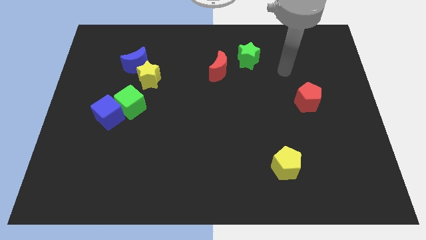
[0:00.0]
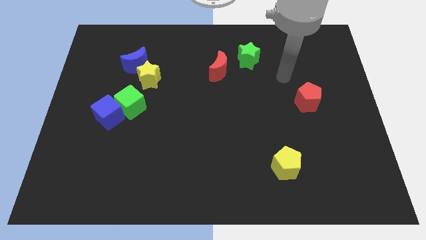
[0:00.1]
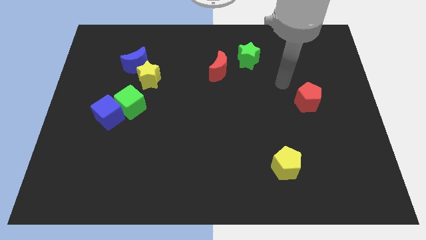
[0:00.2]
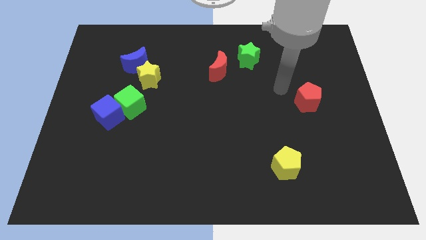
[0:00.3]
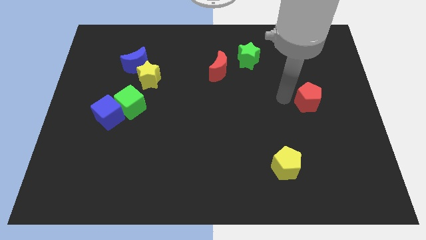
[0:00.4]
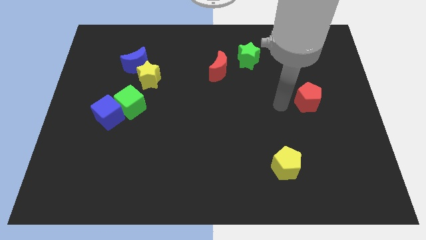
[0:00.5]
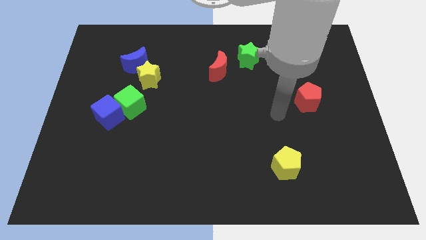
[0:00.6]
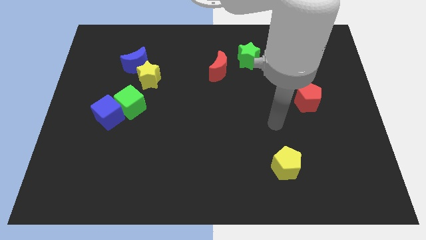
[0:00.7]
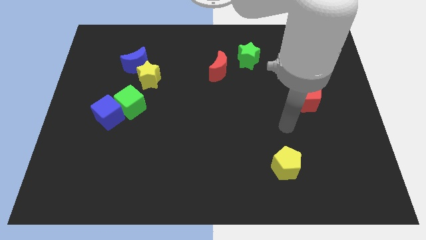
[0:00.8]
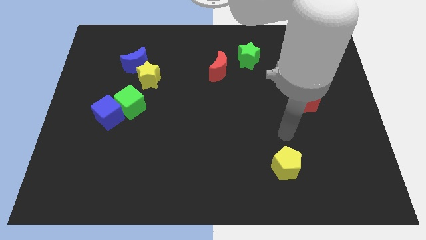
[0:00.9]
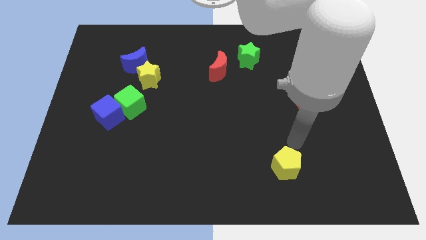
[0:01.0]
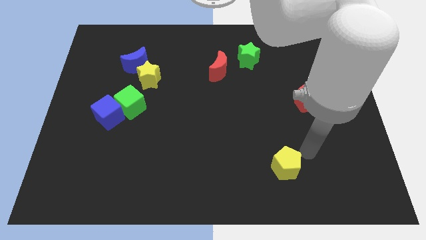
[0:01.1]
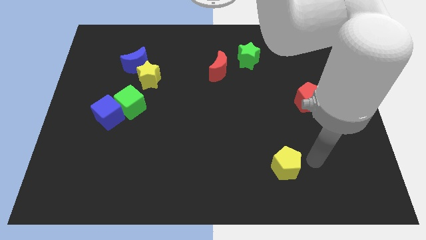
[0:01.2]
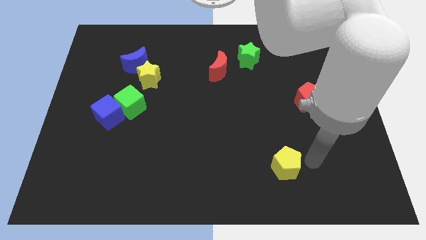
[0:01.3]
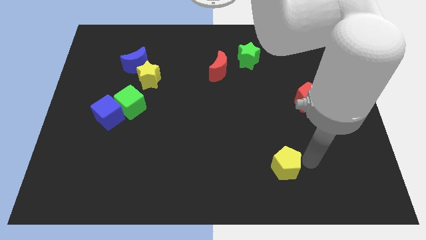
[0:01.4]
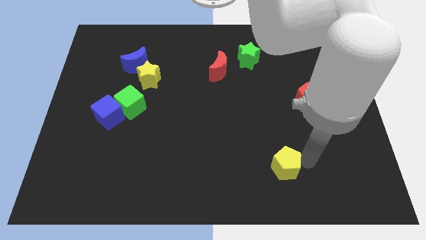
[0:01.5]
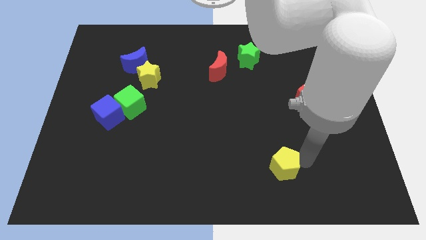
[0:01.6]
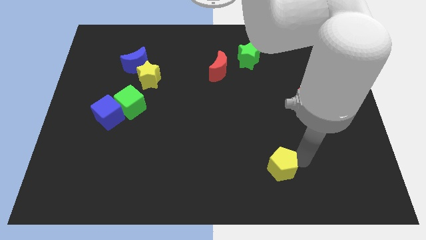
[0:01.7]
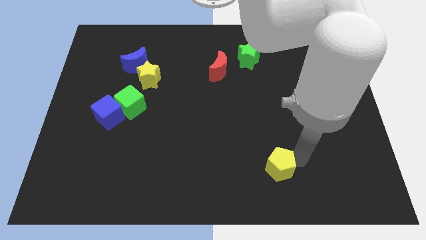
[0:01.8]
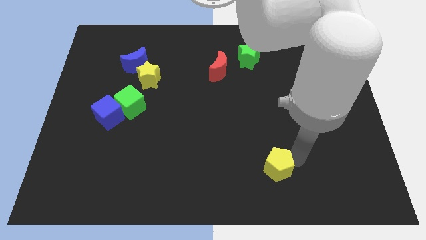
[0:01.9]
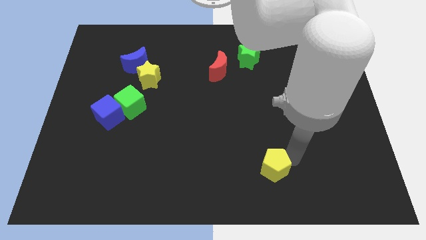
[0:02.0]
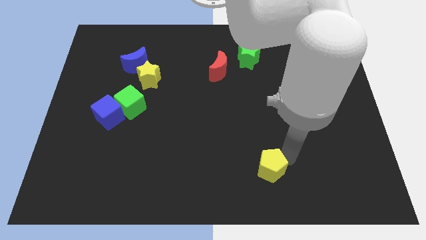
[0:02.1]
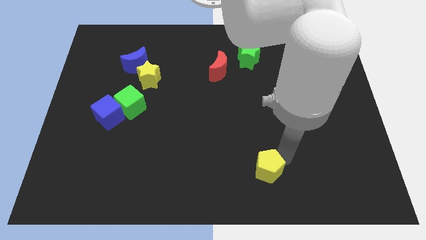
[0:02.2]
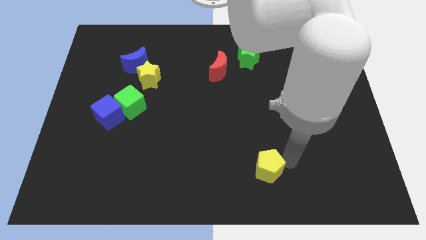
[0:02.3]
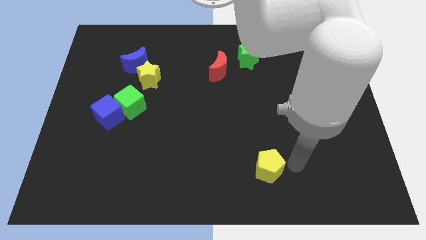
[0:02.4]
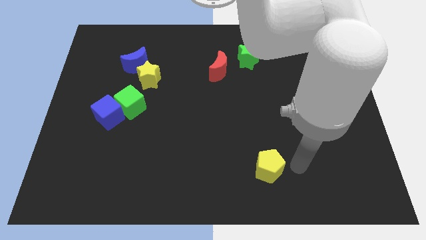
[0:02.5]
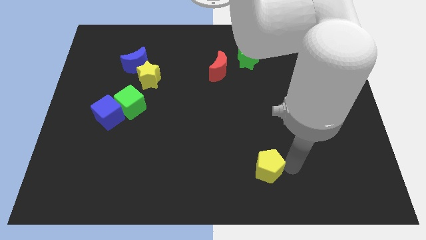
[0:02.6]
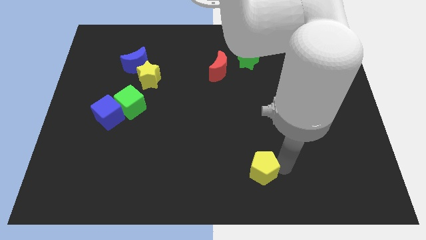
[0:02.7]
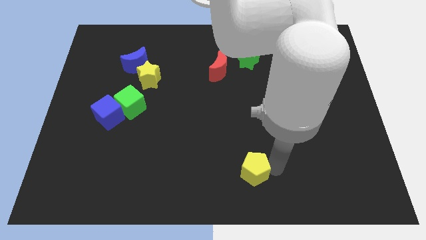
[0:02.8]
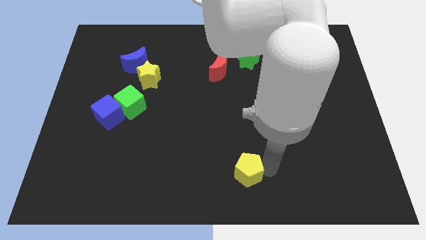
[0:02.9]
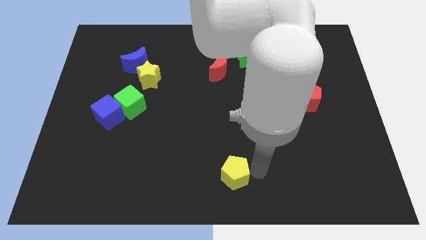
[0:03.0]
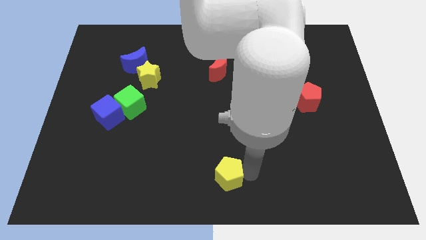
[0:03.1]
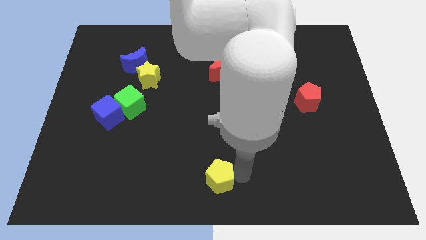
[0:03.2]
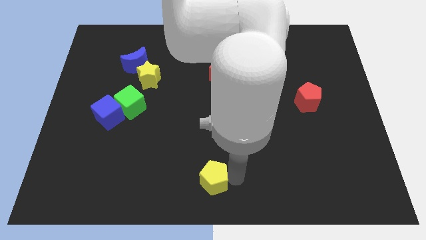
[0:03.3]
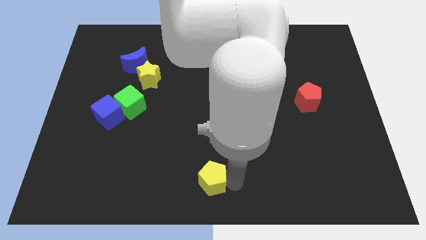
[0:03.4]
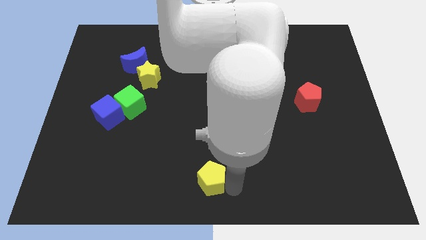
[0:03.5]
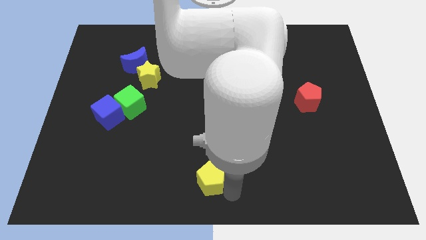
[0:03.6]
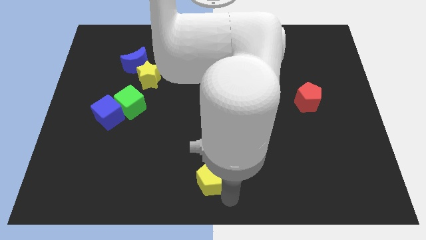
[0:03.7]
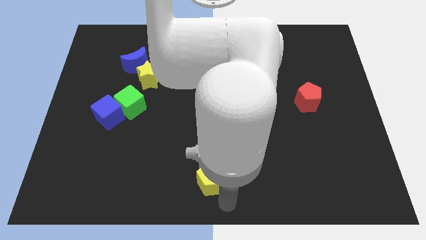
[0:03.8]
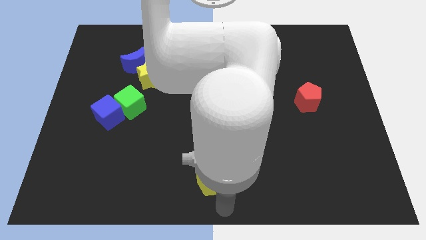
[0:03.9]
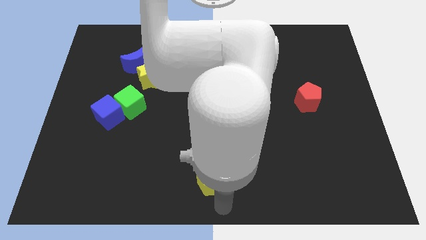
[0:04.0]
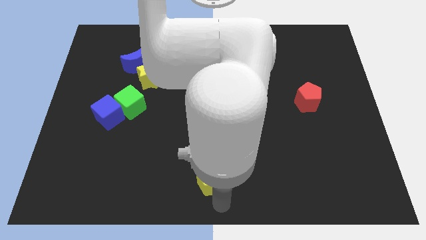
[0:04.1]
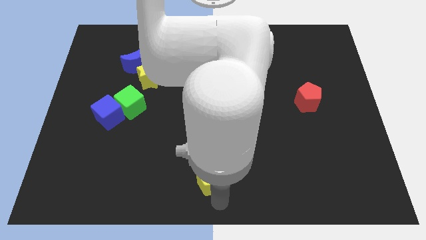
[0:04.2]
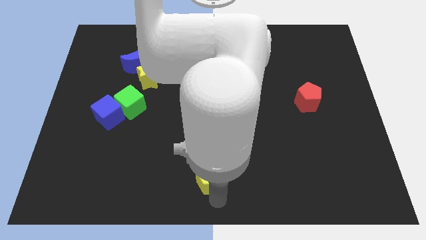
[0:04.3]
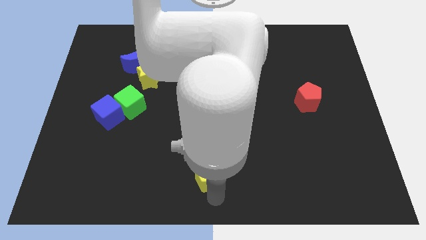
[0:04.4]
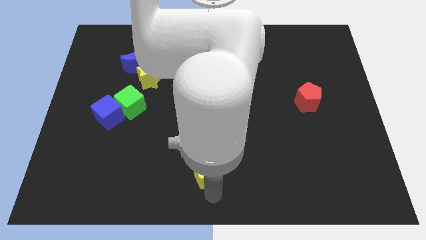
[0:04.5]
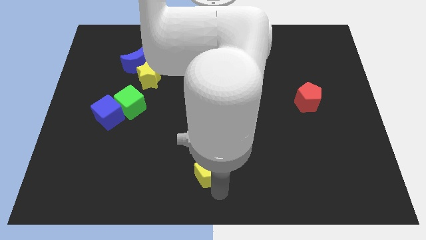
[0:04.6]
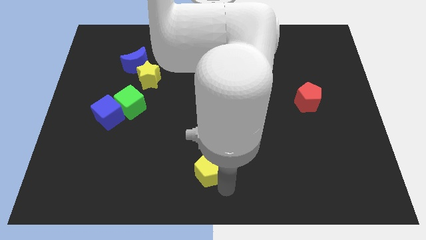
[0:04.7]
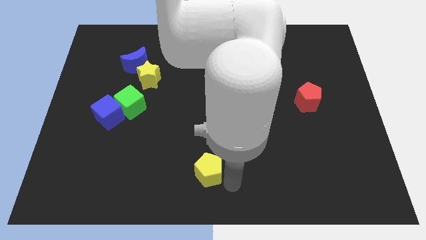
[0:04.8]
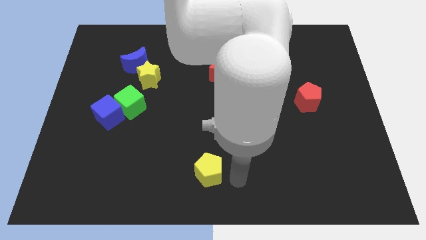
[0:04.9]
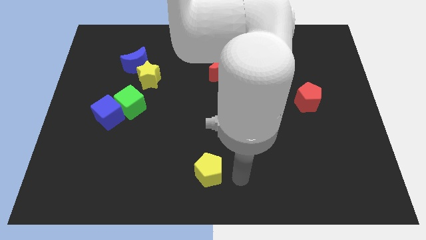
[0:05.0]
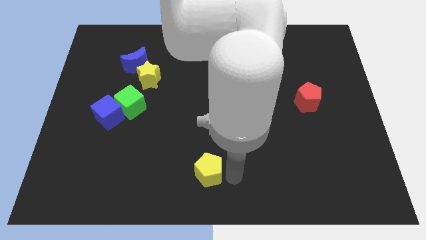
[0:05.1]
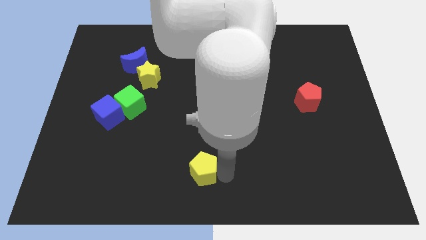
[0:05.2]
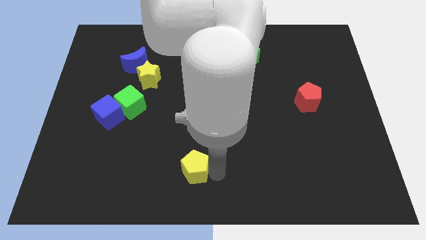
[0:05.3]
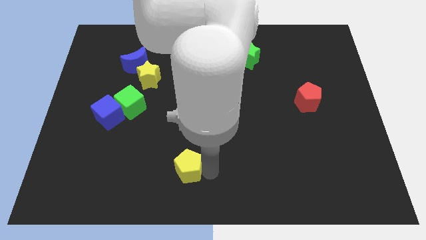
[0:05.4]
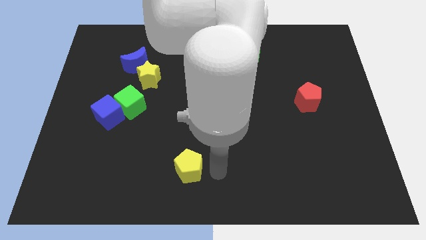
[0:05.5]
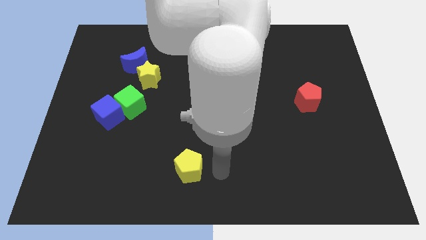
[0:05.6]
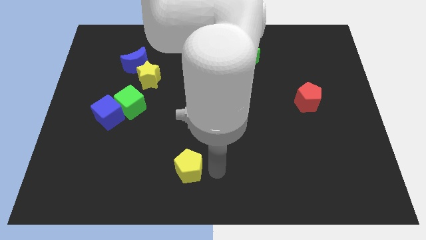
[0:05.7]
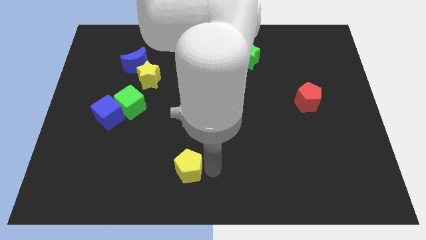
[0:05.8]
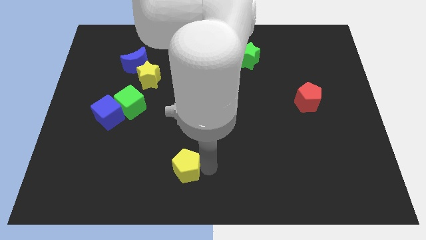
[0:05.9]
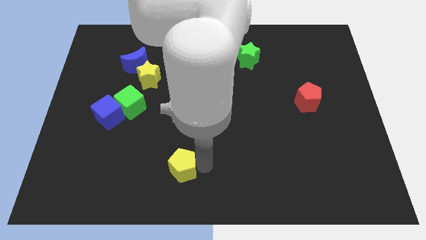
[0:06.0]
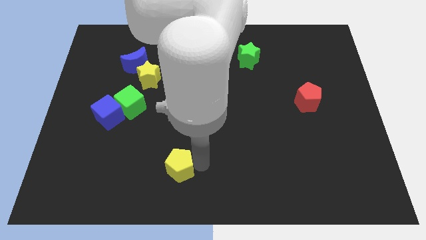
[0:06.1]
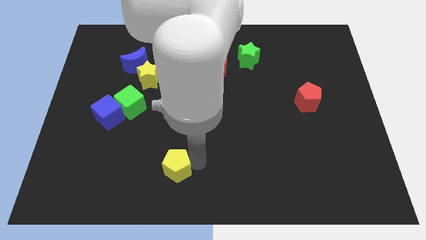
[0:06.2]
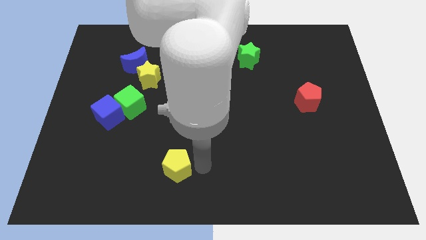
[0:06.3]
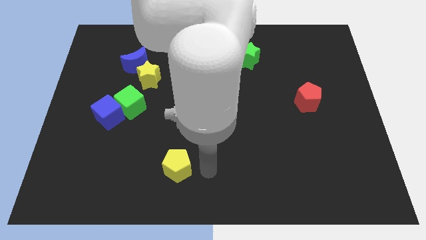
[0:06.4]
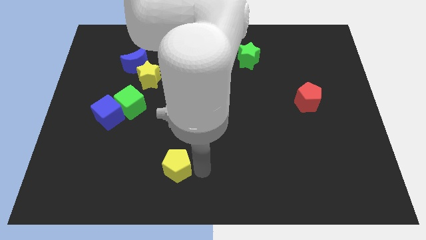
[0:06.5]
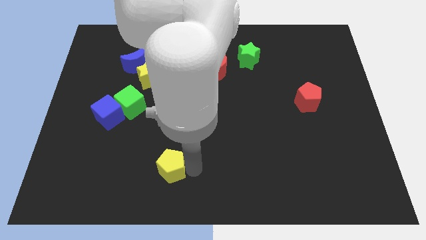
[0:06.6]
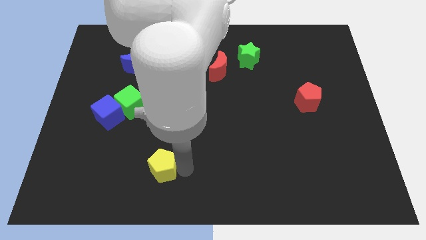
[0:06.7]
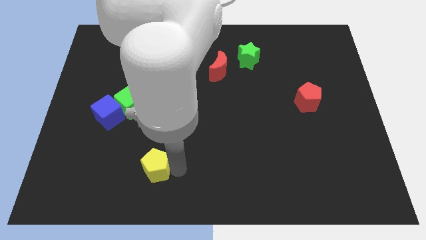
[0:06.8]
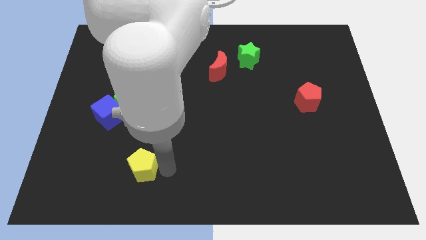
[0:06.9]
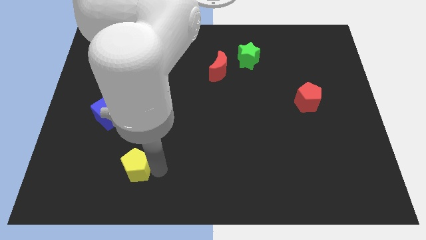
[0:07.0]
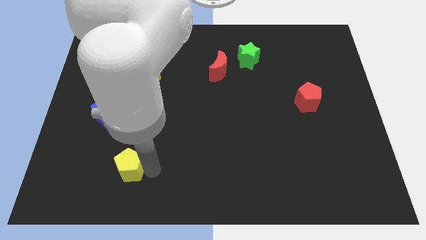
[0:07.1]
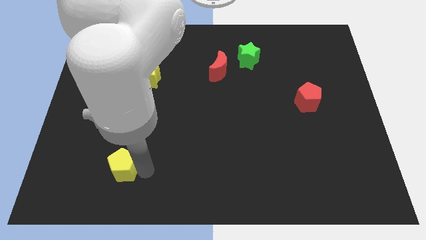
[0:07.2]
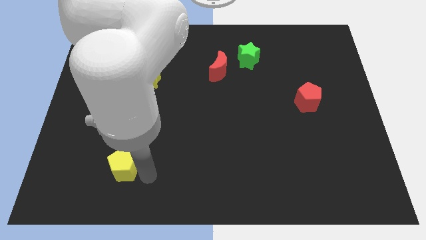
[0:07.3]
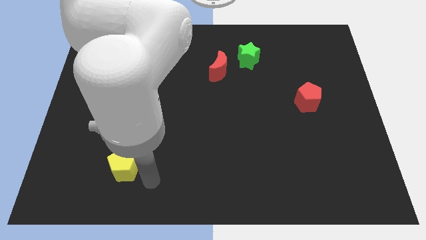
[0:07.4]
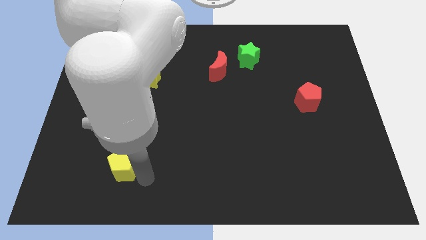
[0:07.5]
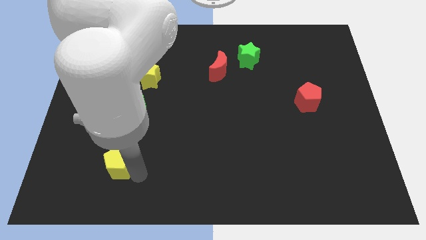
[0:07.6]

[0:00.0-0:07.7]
slide the yellow pentagon below the blue cube
